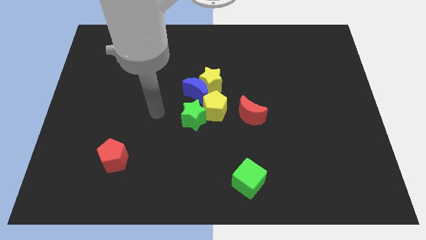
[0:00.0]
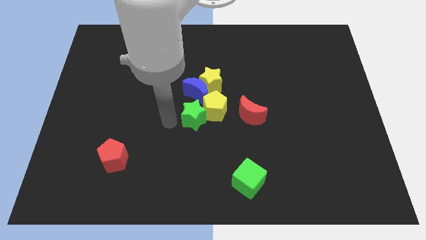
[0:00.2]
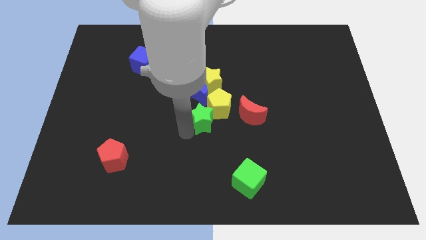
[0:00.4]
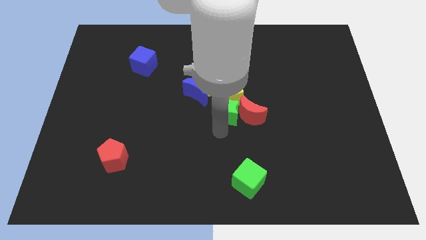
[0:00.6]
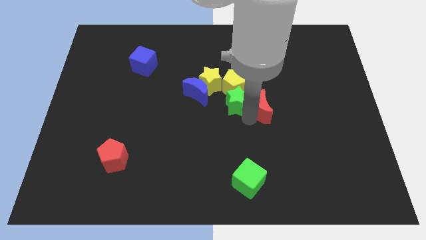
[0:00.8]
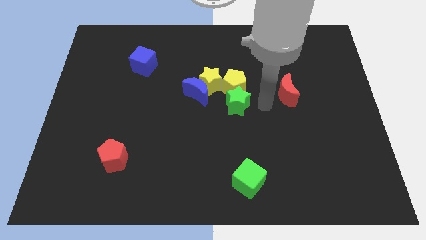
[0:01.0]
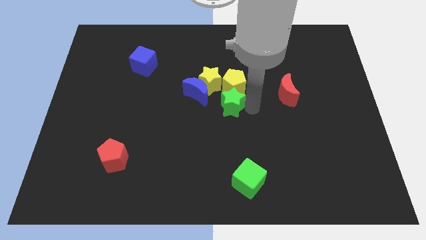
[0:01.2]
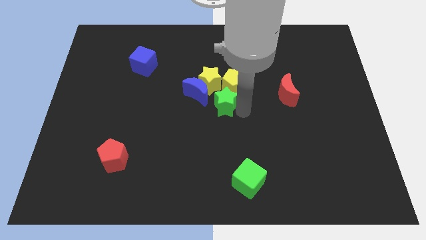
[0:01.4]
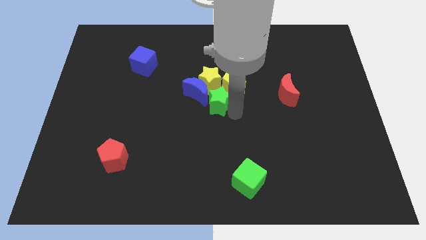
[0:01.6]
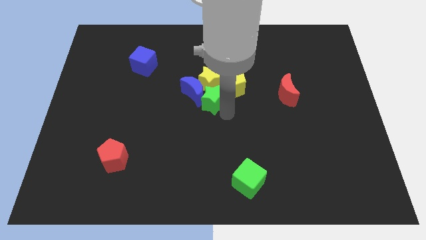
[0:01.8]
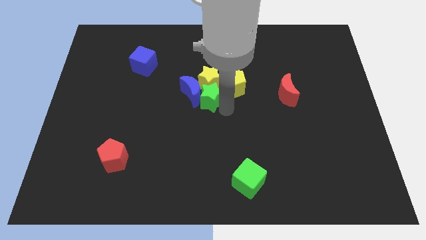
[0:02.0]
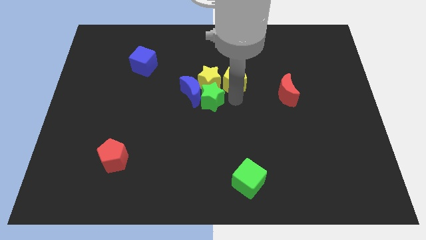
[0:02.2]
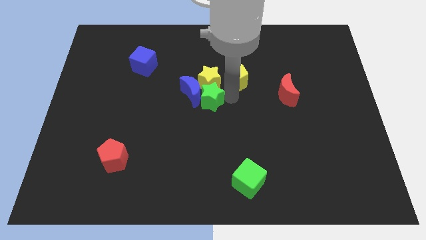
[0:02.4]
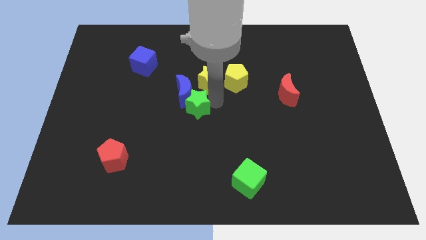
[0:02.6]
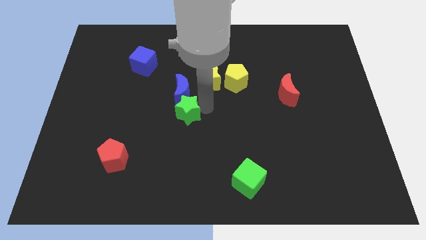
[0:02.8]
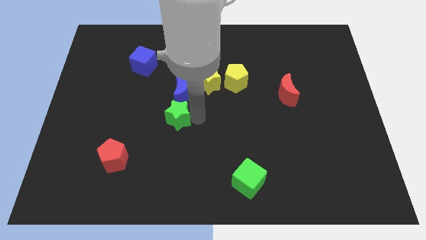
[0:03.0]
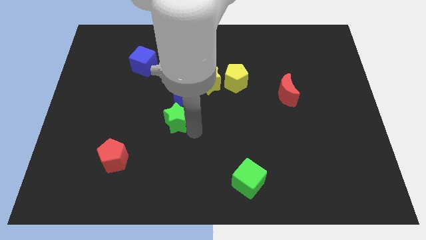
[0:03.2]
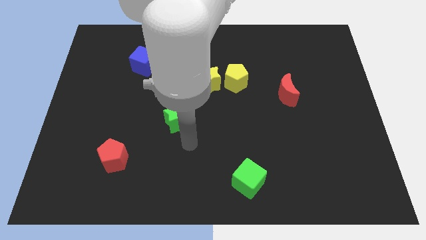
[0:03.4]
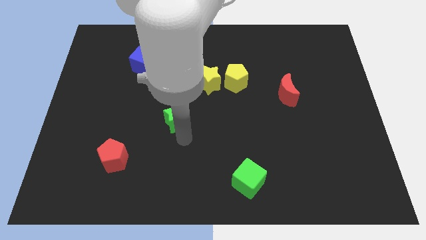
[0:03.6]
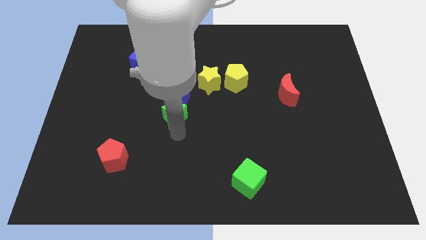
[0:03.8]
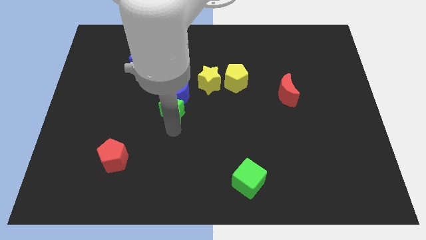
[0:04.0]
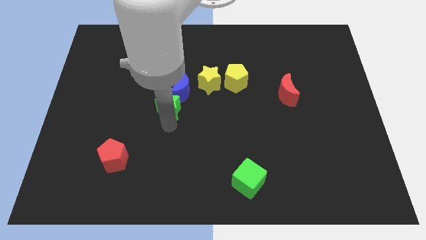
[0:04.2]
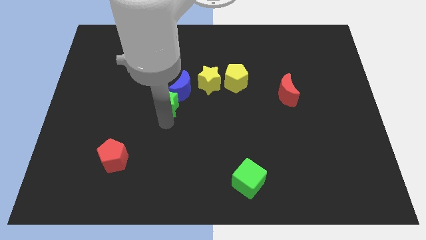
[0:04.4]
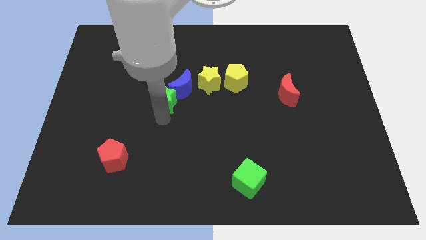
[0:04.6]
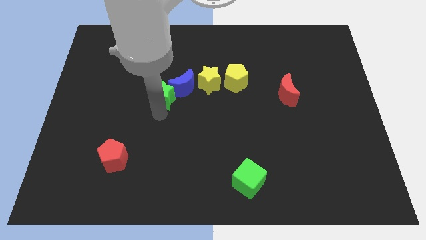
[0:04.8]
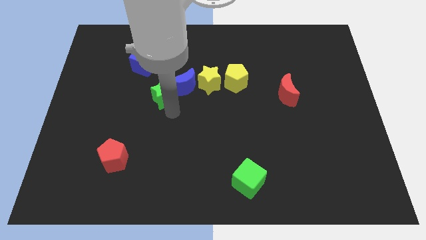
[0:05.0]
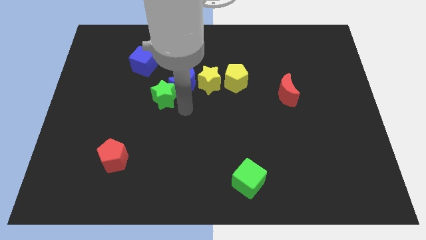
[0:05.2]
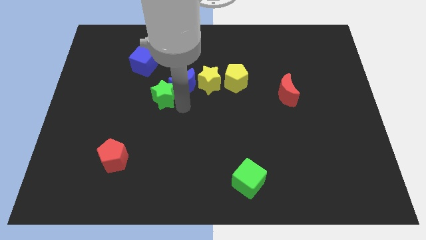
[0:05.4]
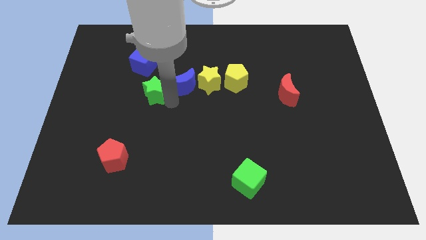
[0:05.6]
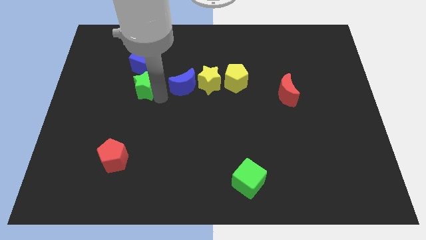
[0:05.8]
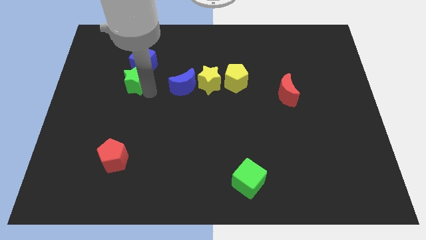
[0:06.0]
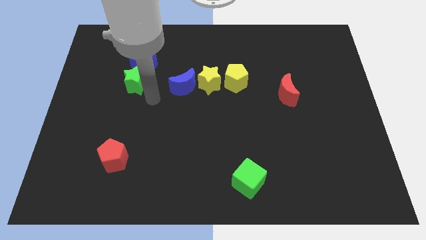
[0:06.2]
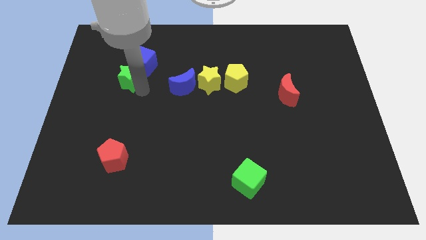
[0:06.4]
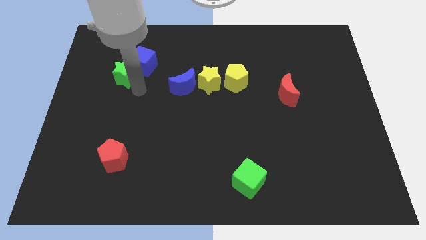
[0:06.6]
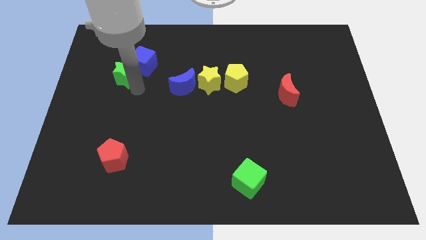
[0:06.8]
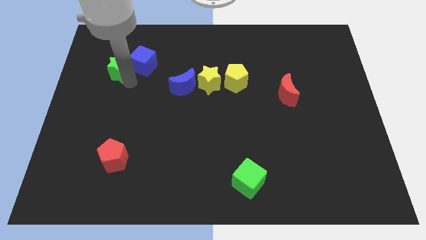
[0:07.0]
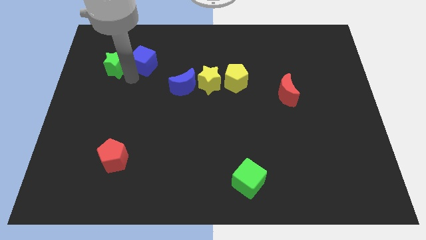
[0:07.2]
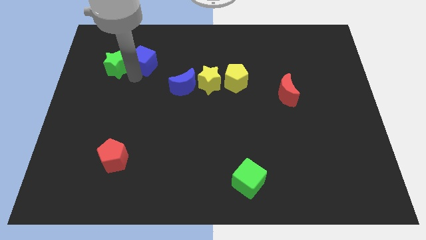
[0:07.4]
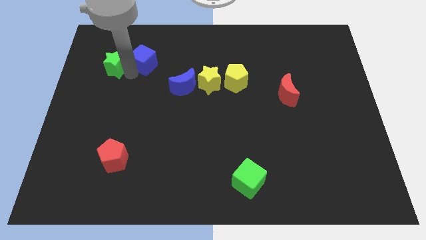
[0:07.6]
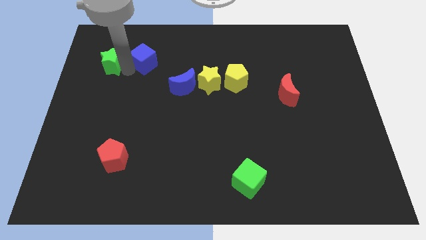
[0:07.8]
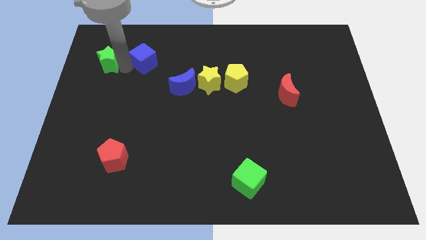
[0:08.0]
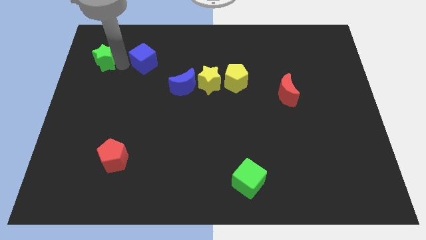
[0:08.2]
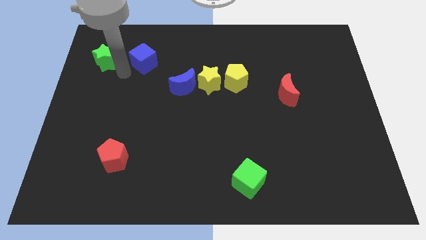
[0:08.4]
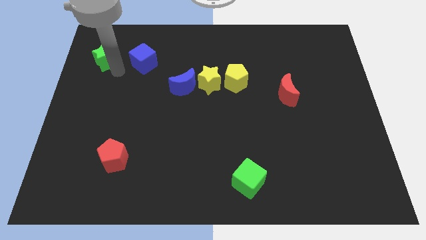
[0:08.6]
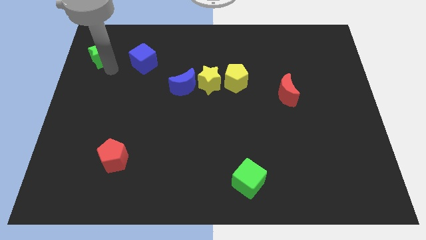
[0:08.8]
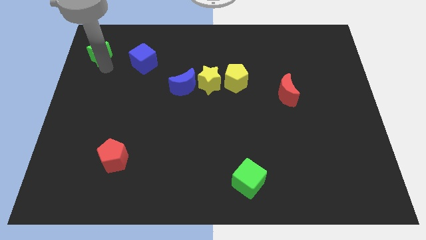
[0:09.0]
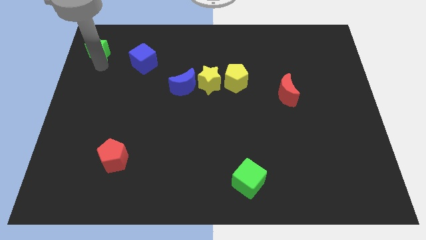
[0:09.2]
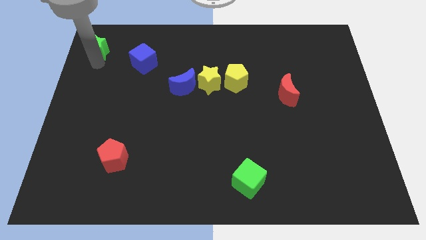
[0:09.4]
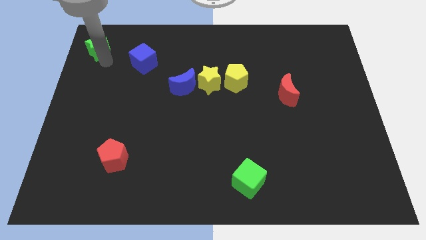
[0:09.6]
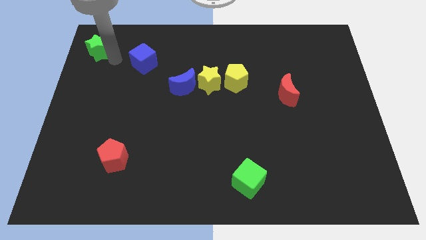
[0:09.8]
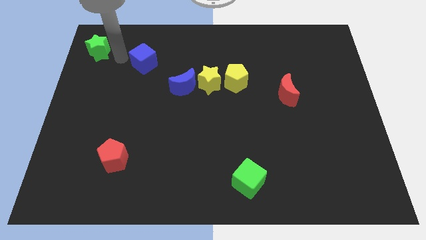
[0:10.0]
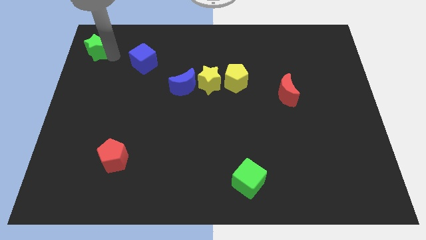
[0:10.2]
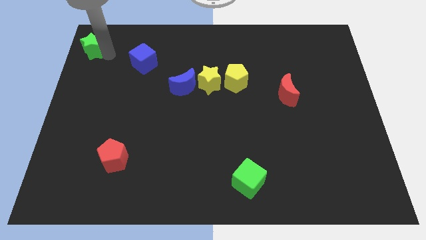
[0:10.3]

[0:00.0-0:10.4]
slide the green star to the top left corner
